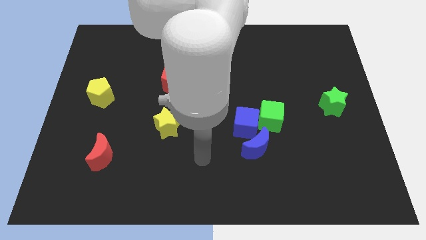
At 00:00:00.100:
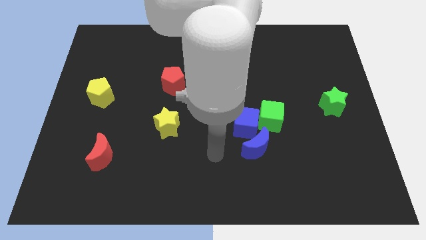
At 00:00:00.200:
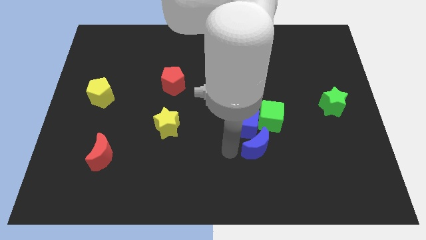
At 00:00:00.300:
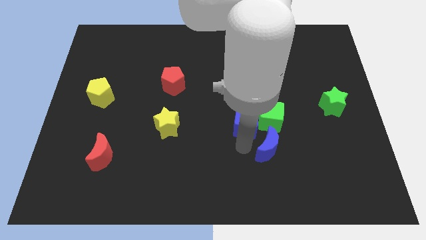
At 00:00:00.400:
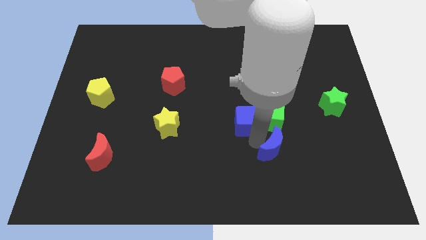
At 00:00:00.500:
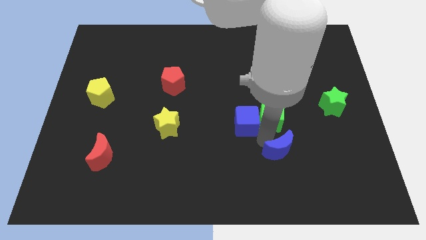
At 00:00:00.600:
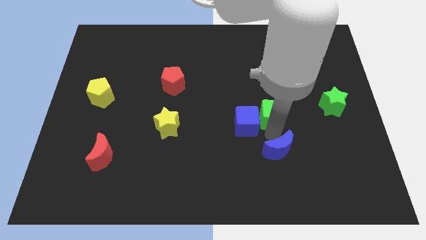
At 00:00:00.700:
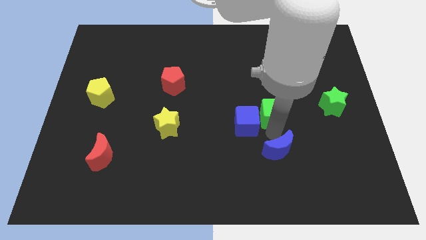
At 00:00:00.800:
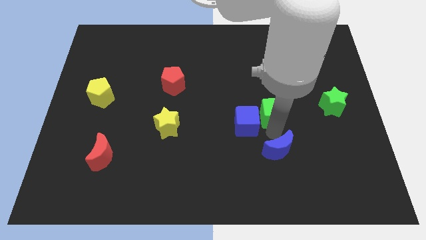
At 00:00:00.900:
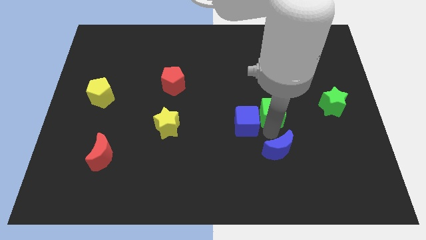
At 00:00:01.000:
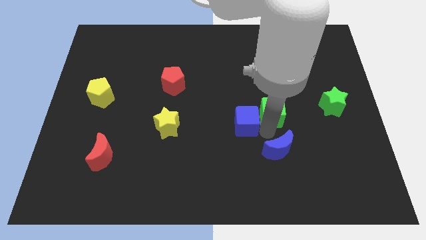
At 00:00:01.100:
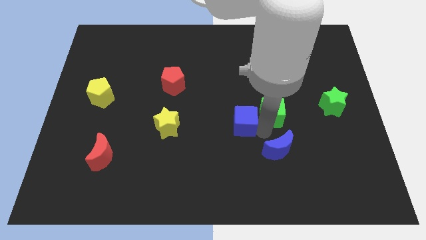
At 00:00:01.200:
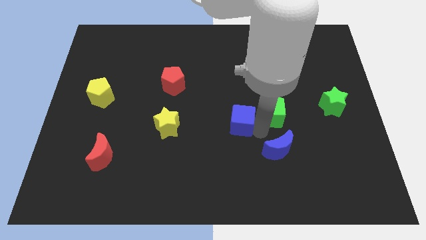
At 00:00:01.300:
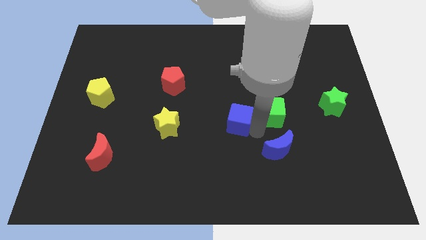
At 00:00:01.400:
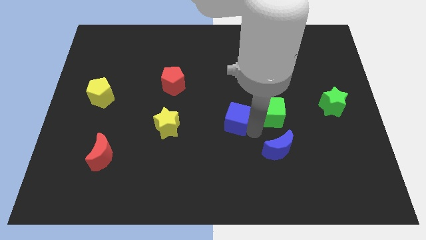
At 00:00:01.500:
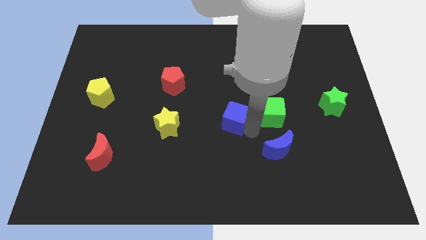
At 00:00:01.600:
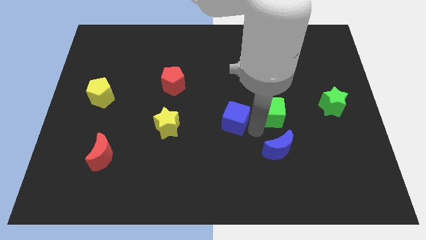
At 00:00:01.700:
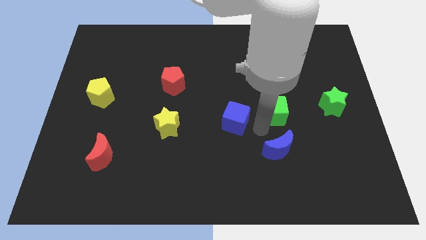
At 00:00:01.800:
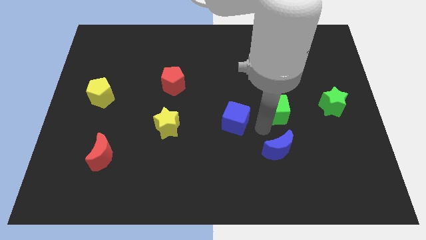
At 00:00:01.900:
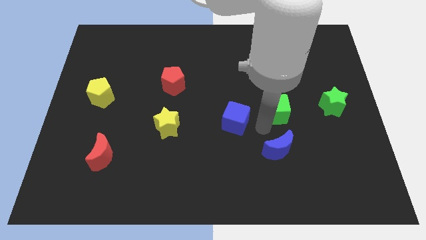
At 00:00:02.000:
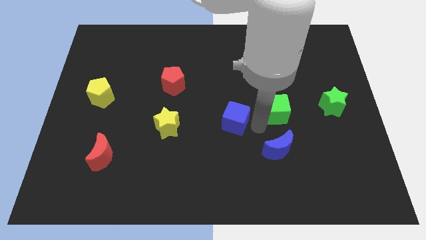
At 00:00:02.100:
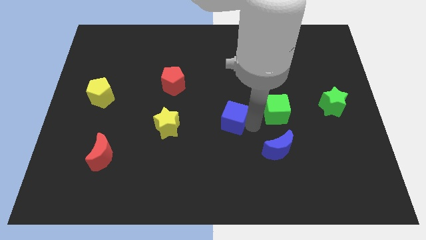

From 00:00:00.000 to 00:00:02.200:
pull the blue cube apart from the green cube and blue moon

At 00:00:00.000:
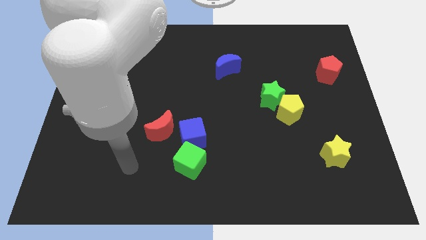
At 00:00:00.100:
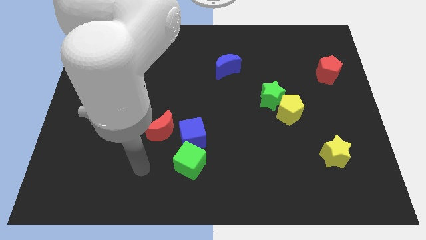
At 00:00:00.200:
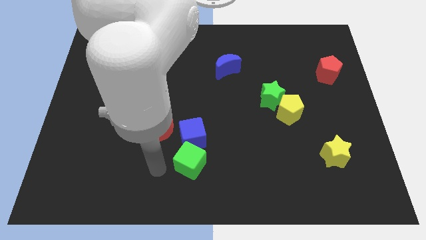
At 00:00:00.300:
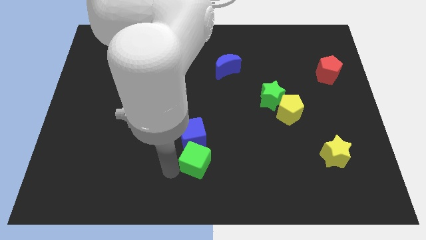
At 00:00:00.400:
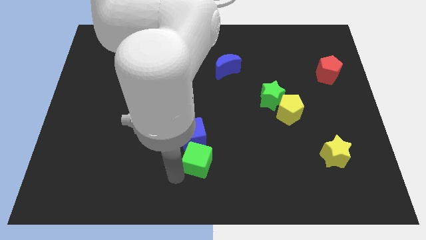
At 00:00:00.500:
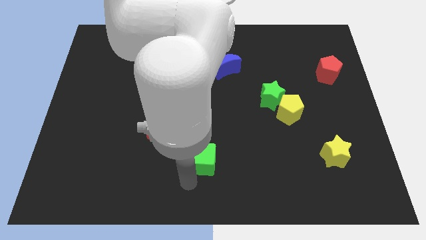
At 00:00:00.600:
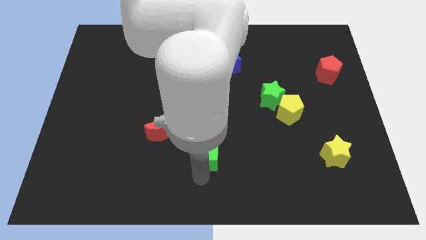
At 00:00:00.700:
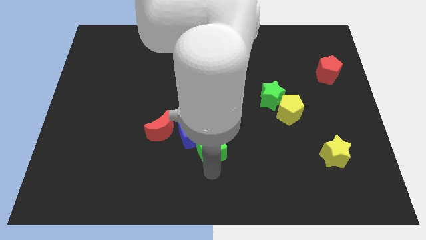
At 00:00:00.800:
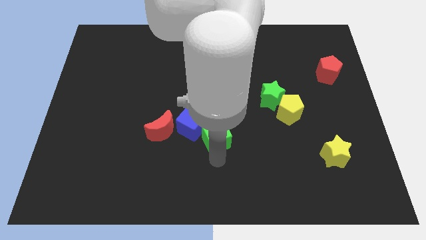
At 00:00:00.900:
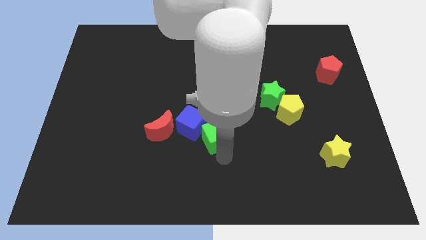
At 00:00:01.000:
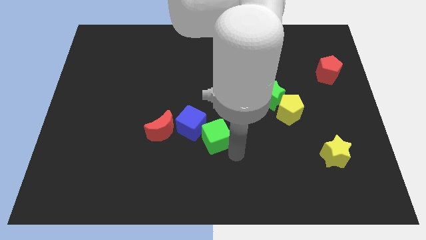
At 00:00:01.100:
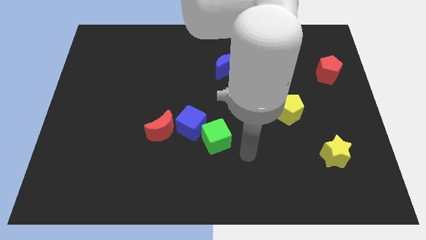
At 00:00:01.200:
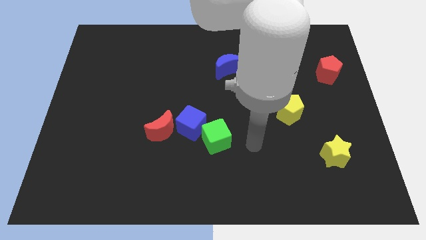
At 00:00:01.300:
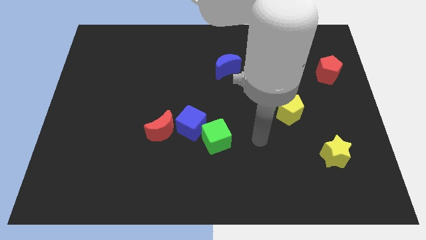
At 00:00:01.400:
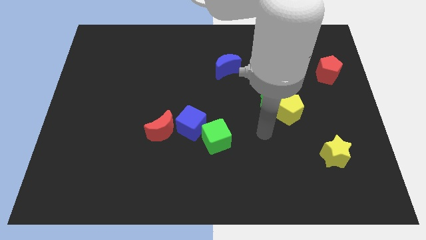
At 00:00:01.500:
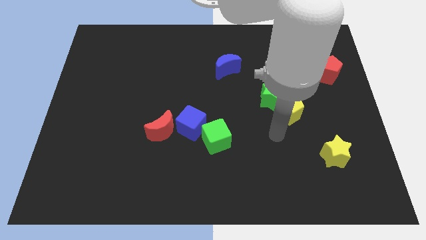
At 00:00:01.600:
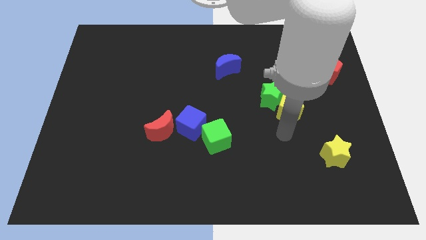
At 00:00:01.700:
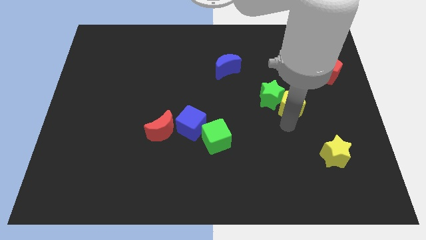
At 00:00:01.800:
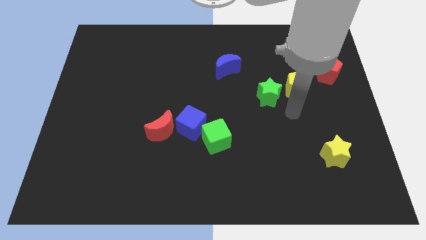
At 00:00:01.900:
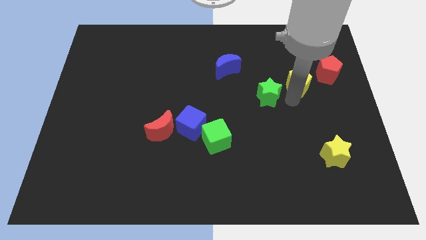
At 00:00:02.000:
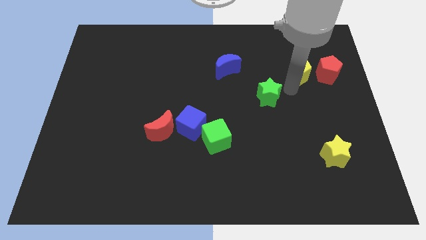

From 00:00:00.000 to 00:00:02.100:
pull the green star apart from the yellow pentagon

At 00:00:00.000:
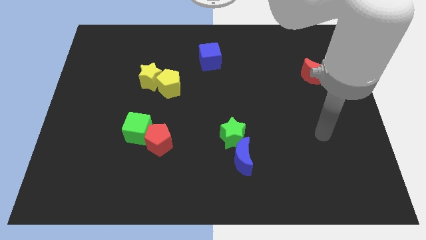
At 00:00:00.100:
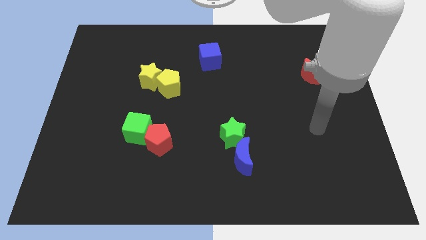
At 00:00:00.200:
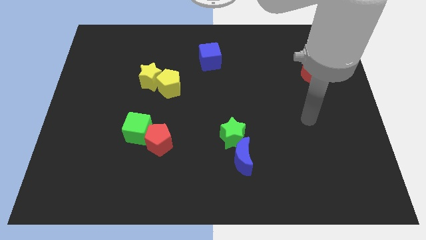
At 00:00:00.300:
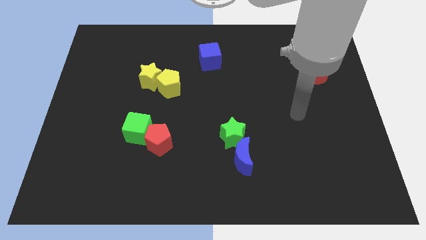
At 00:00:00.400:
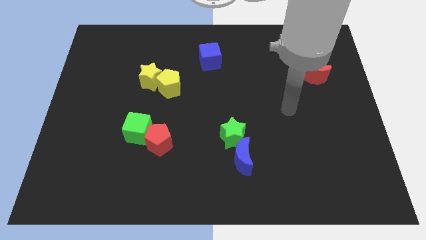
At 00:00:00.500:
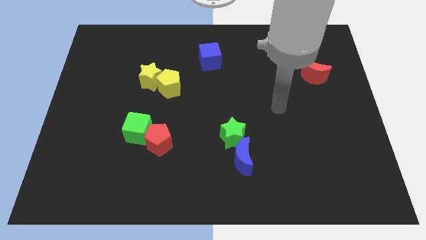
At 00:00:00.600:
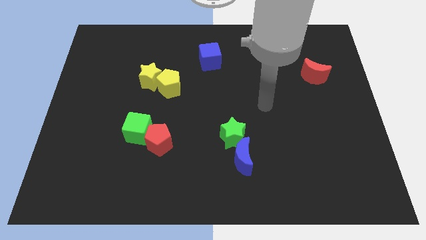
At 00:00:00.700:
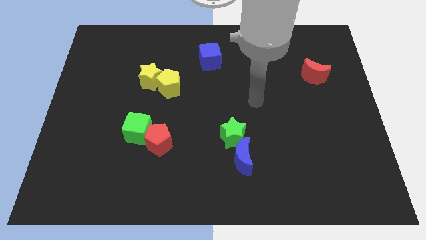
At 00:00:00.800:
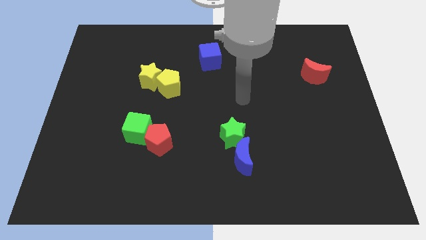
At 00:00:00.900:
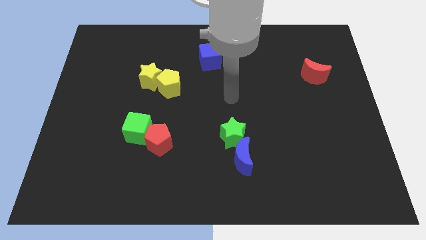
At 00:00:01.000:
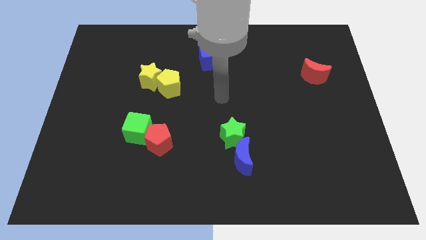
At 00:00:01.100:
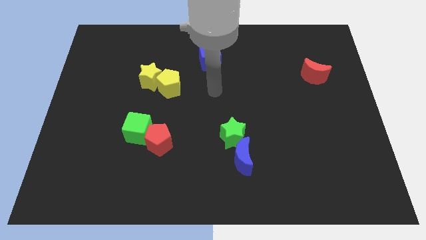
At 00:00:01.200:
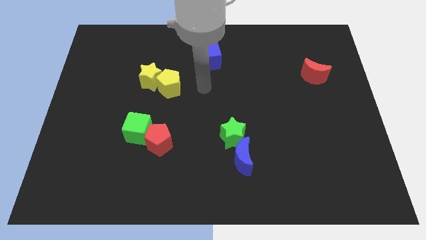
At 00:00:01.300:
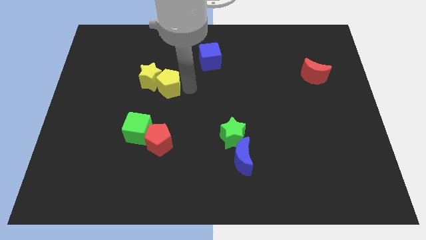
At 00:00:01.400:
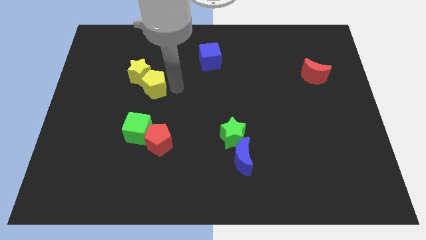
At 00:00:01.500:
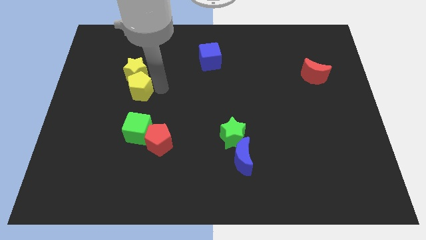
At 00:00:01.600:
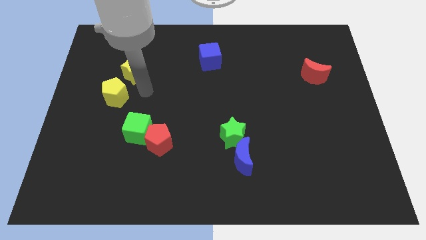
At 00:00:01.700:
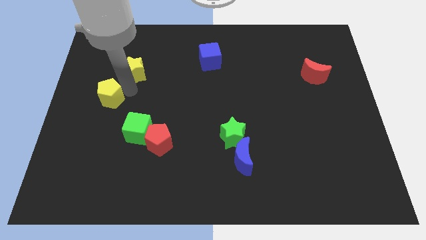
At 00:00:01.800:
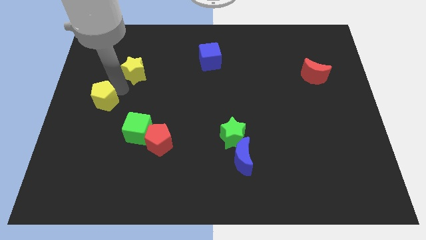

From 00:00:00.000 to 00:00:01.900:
move the yellow star away from the yellow pentagon

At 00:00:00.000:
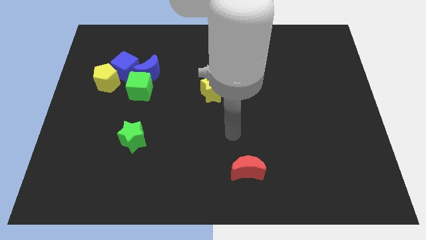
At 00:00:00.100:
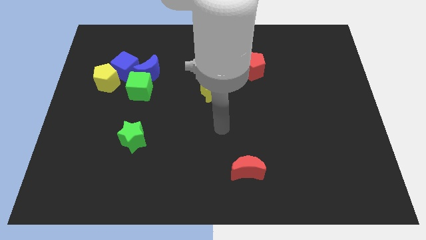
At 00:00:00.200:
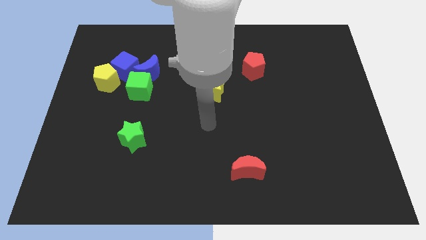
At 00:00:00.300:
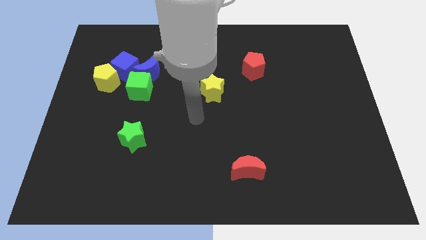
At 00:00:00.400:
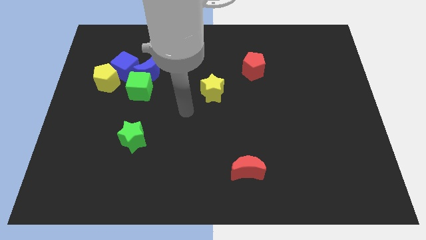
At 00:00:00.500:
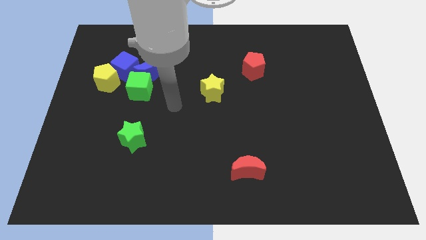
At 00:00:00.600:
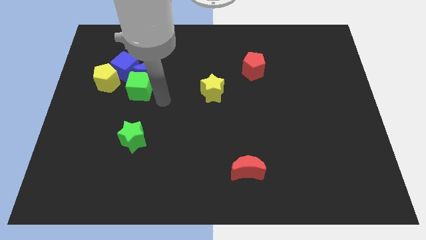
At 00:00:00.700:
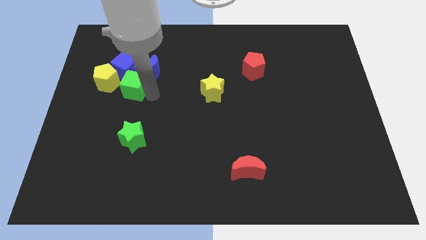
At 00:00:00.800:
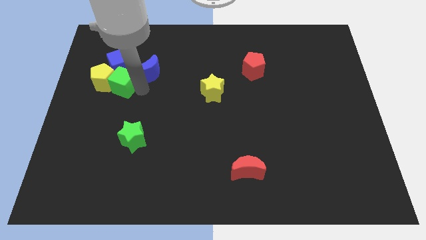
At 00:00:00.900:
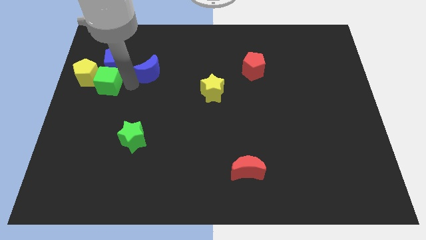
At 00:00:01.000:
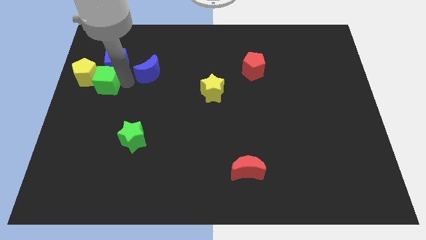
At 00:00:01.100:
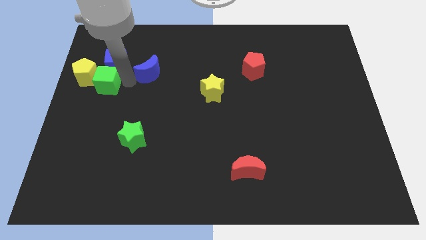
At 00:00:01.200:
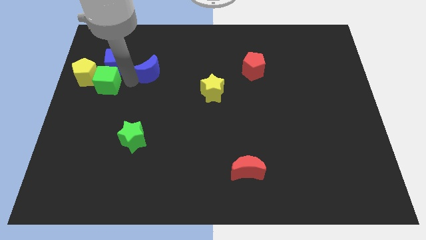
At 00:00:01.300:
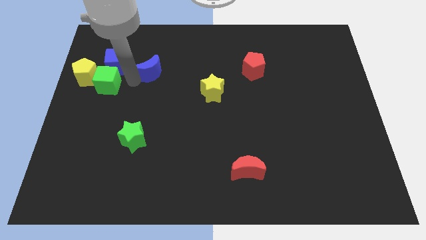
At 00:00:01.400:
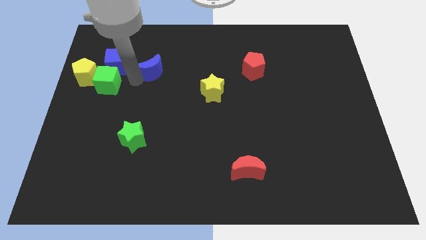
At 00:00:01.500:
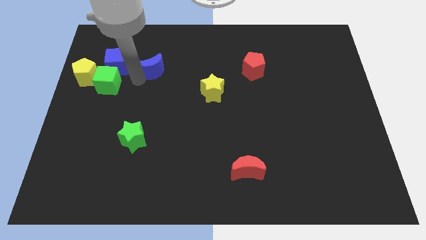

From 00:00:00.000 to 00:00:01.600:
separate the blue moon from the green cube and blue cube

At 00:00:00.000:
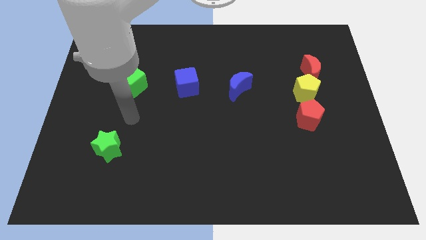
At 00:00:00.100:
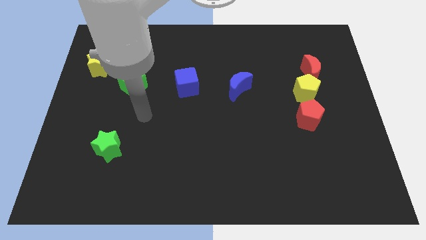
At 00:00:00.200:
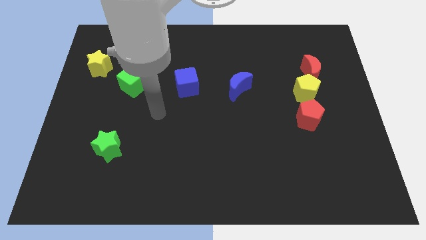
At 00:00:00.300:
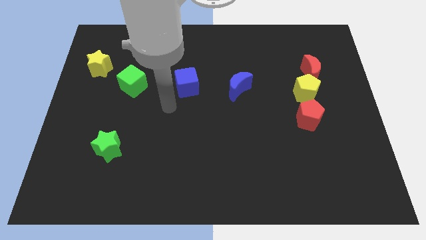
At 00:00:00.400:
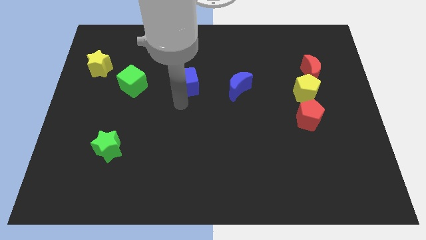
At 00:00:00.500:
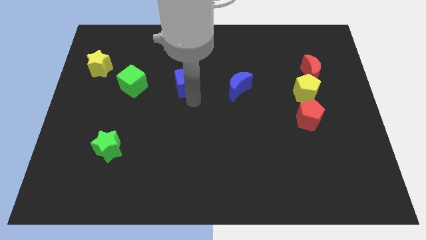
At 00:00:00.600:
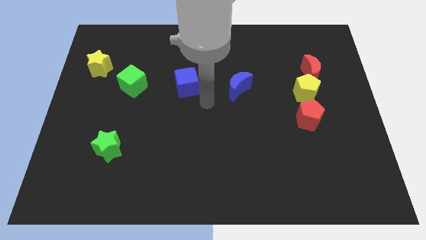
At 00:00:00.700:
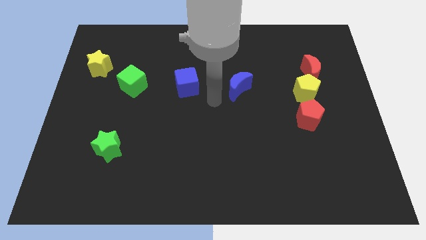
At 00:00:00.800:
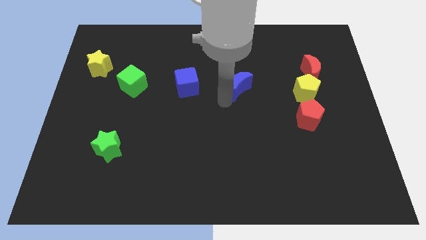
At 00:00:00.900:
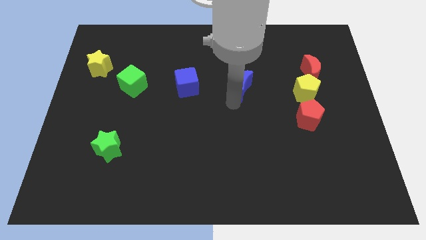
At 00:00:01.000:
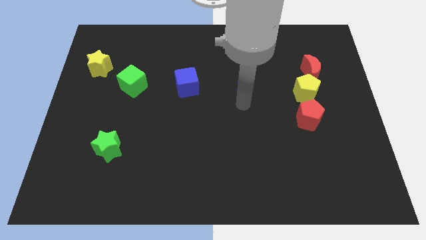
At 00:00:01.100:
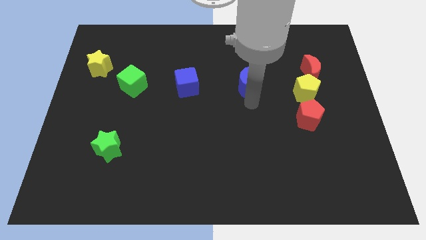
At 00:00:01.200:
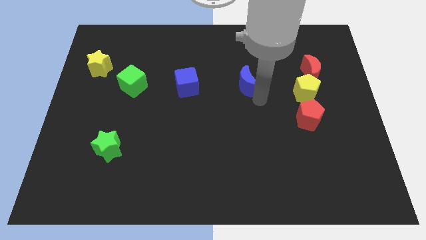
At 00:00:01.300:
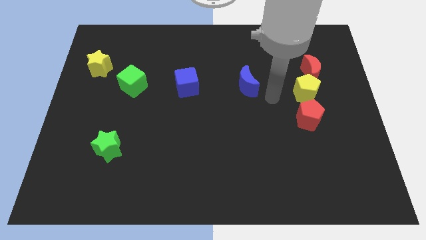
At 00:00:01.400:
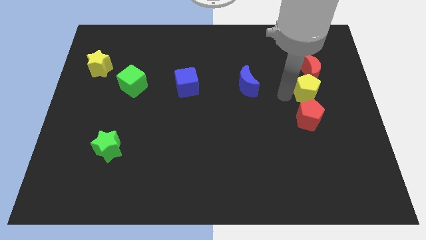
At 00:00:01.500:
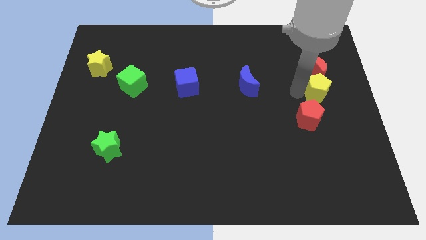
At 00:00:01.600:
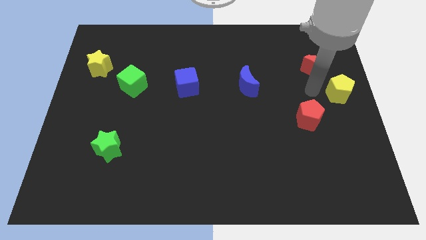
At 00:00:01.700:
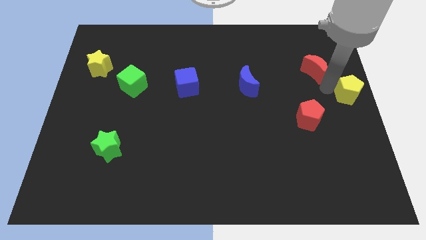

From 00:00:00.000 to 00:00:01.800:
pull the red moon apart from the yellow pentagon
